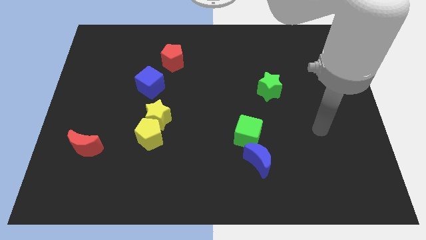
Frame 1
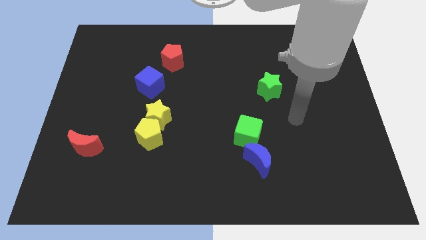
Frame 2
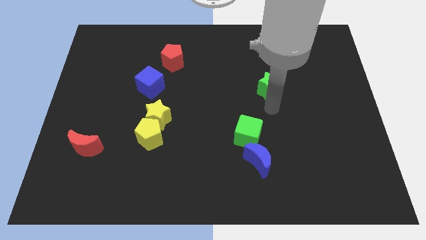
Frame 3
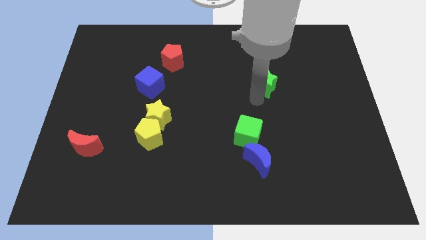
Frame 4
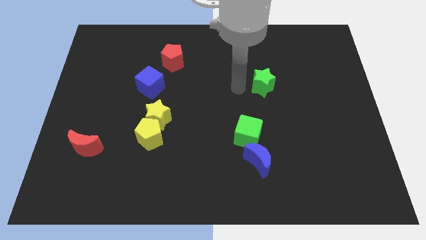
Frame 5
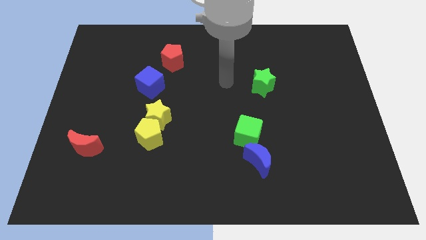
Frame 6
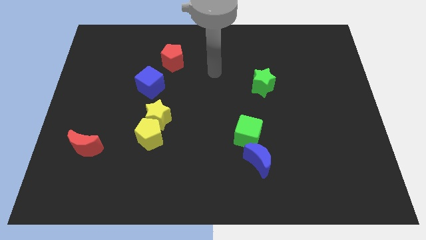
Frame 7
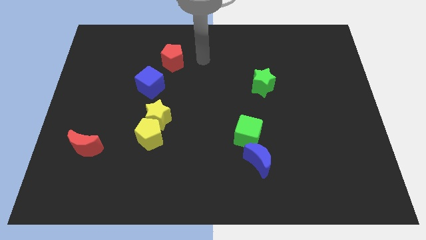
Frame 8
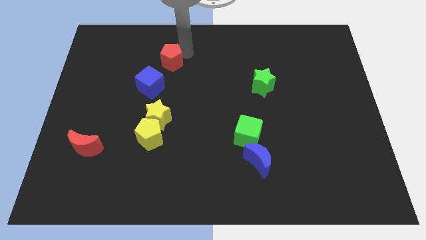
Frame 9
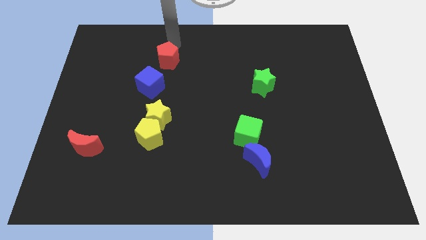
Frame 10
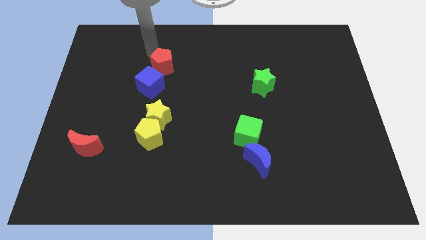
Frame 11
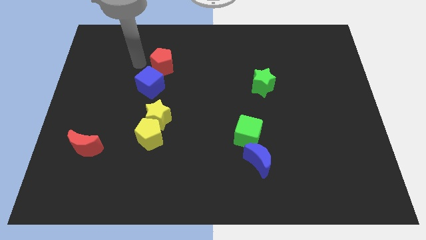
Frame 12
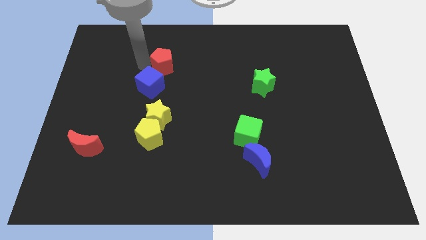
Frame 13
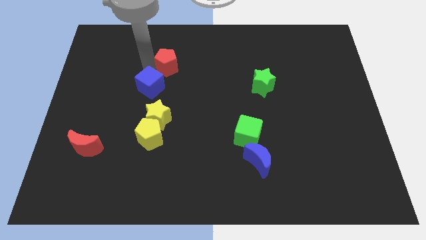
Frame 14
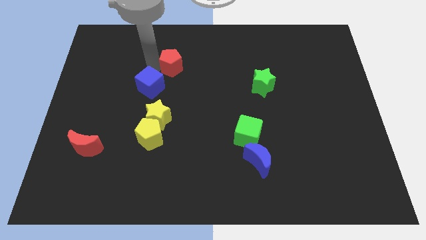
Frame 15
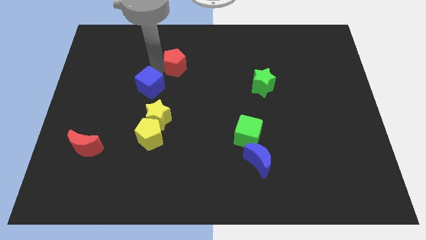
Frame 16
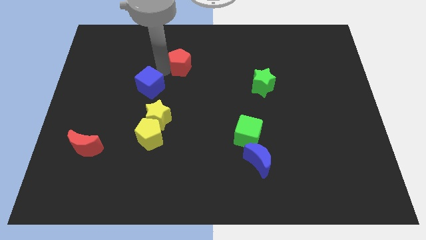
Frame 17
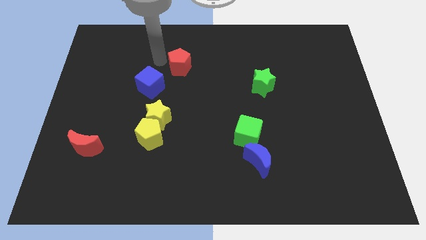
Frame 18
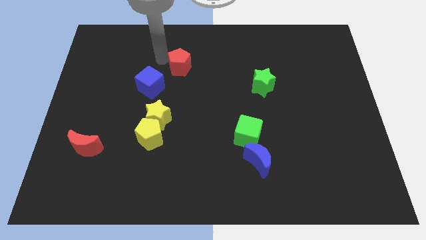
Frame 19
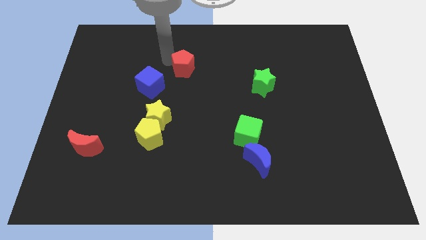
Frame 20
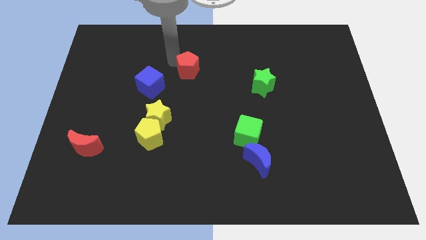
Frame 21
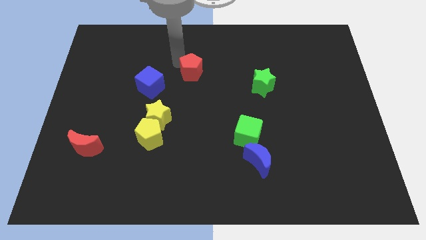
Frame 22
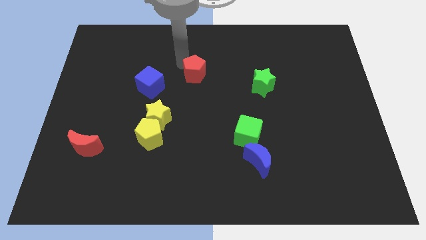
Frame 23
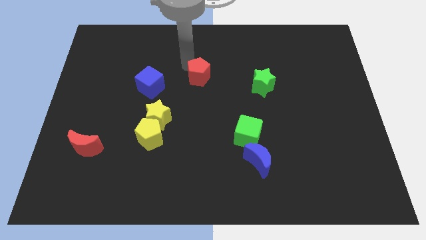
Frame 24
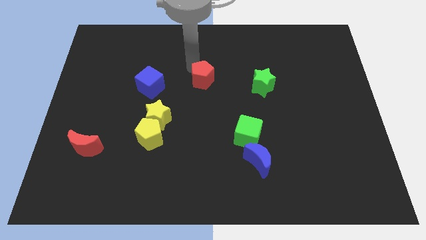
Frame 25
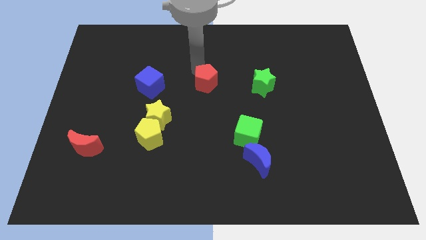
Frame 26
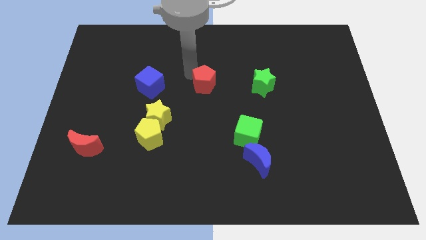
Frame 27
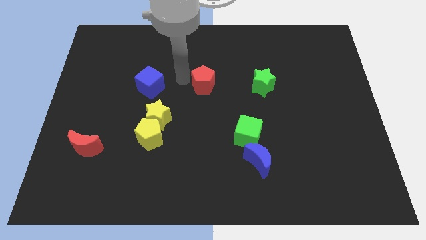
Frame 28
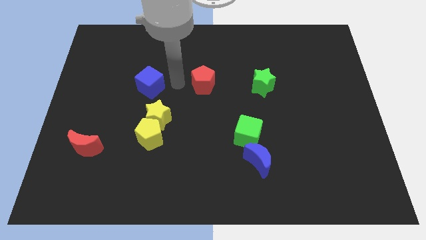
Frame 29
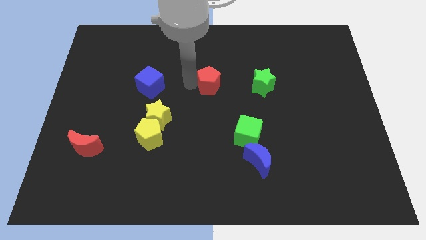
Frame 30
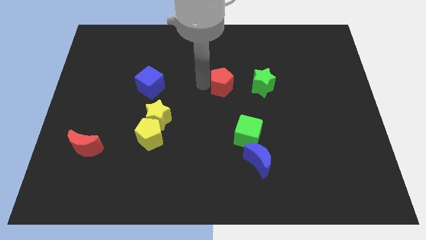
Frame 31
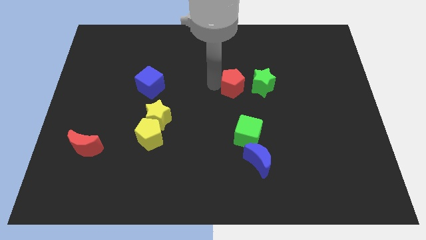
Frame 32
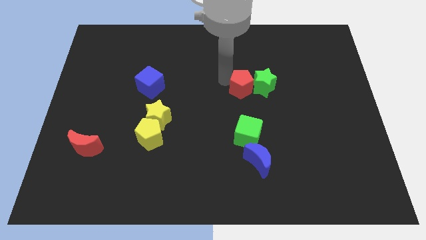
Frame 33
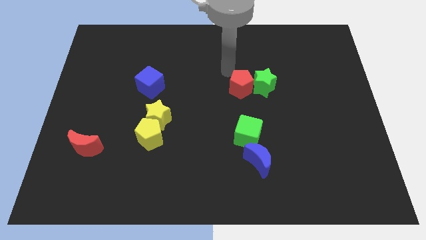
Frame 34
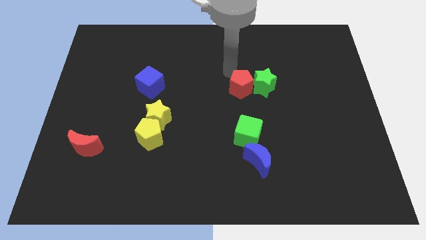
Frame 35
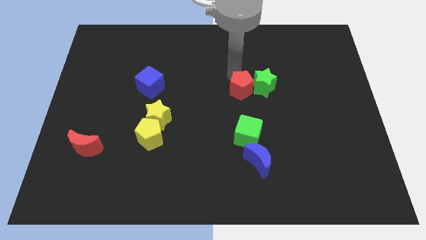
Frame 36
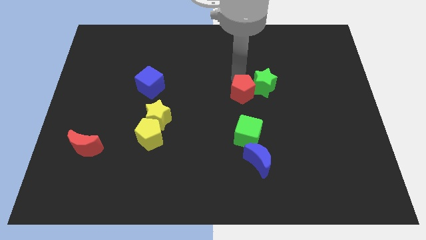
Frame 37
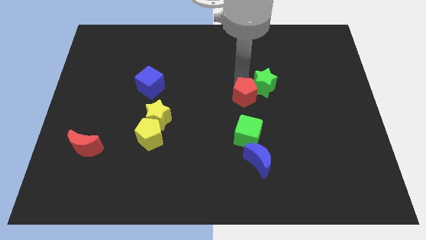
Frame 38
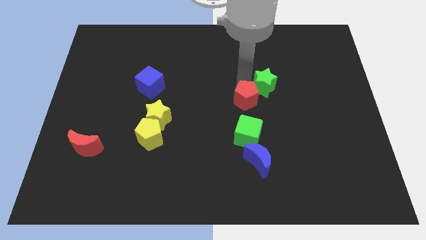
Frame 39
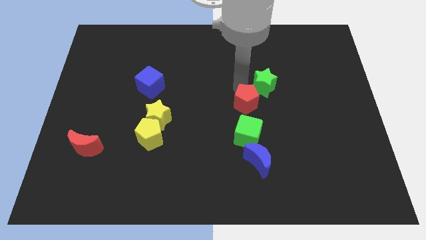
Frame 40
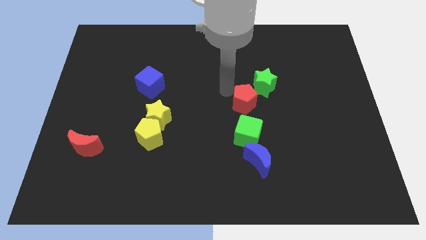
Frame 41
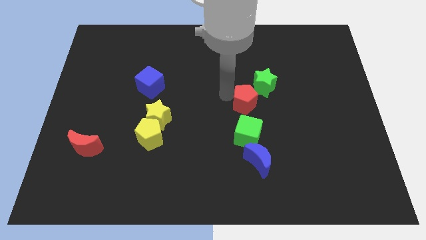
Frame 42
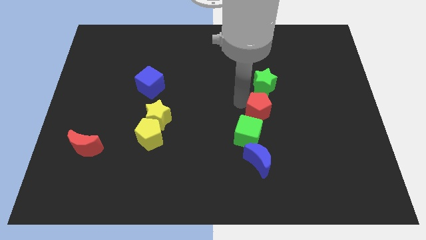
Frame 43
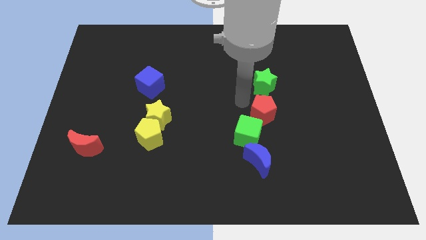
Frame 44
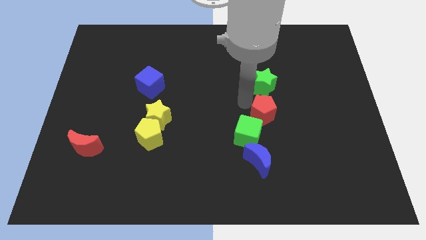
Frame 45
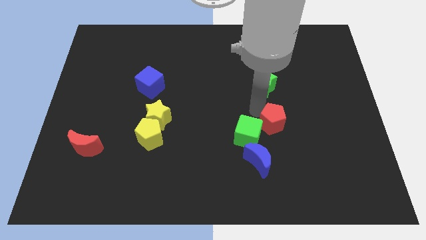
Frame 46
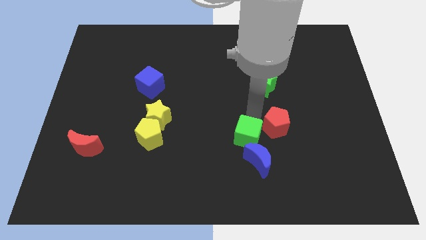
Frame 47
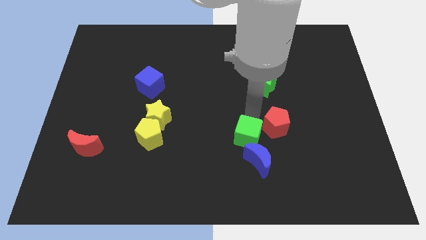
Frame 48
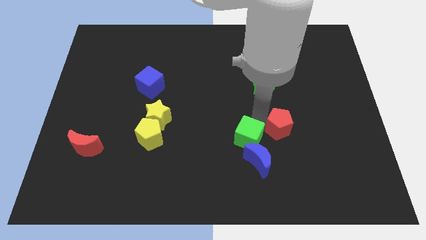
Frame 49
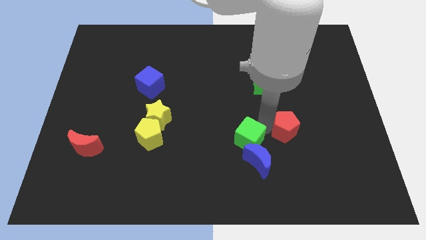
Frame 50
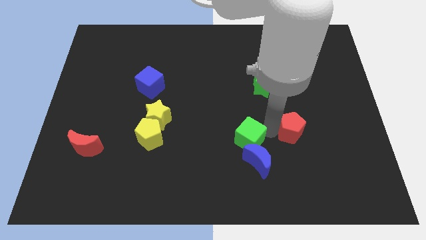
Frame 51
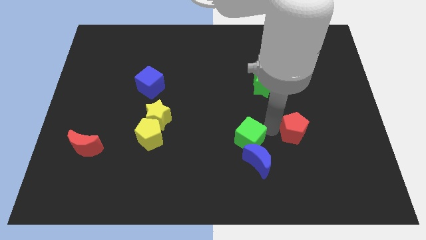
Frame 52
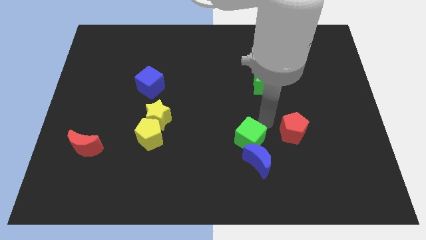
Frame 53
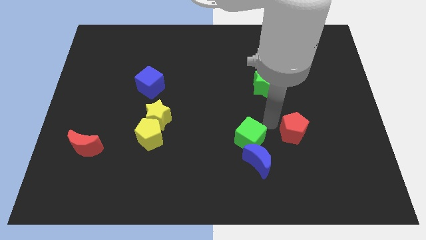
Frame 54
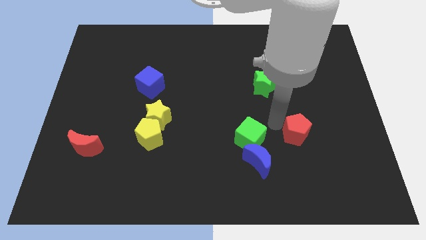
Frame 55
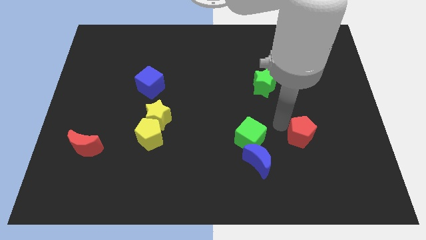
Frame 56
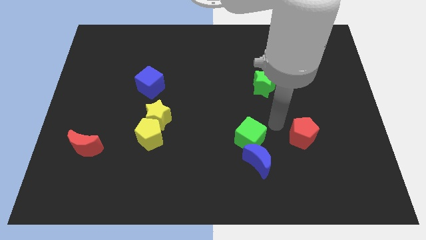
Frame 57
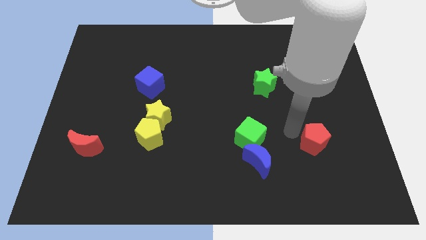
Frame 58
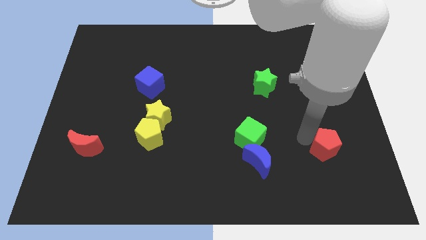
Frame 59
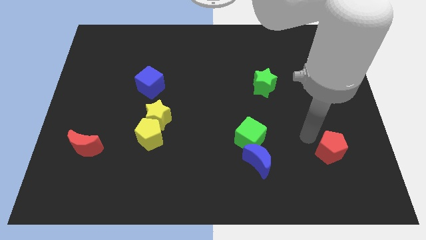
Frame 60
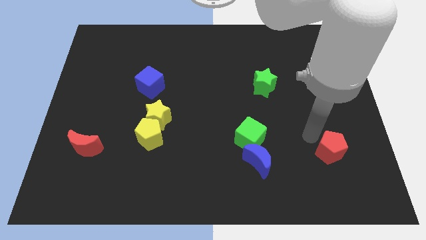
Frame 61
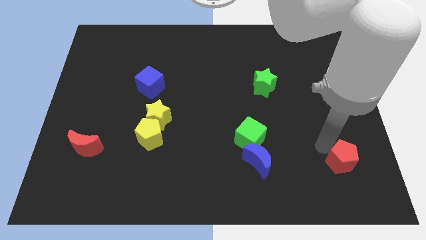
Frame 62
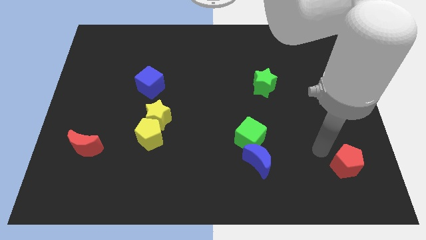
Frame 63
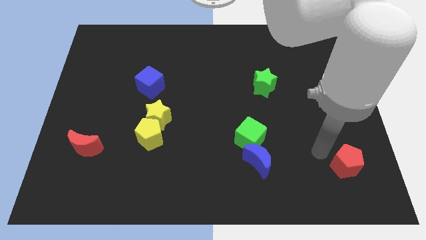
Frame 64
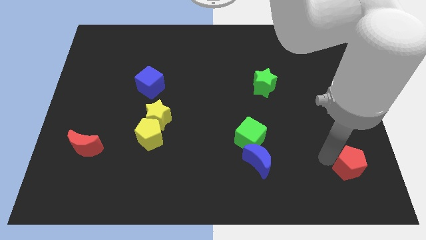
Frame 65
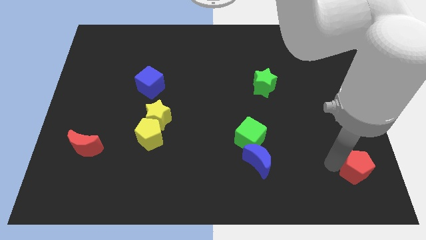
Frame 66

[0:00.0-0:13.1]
slide the red pentagon to the bottom right
